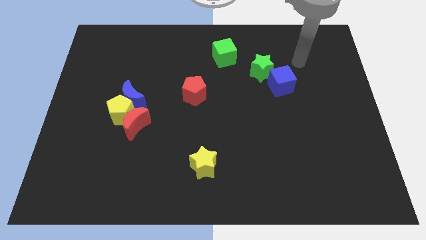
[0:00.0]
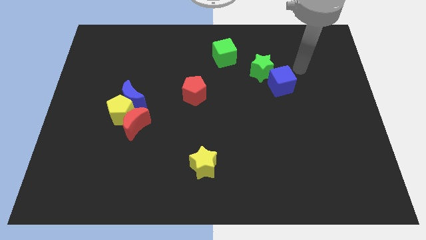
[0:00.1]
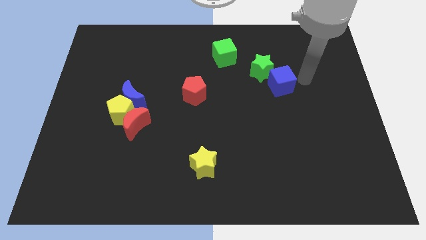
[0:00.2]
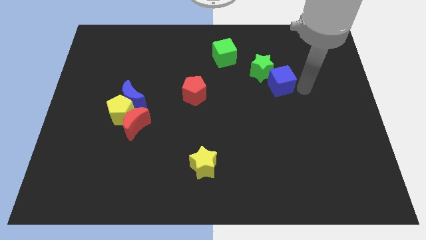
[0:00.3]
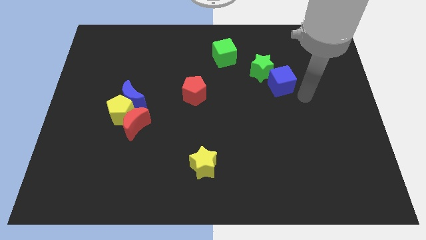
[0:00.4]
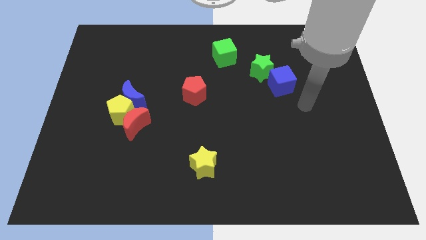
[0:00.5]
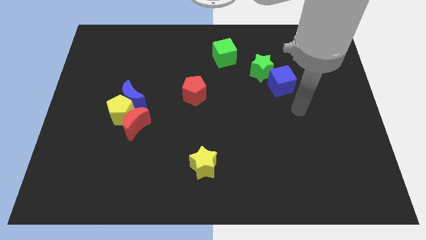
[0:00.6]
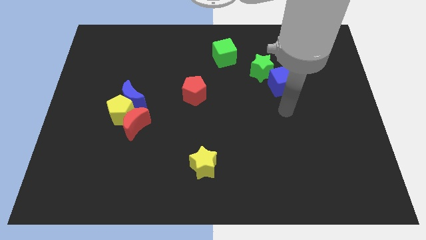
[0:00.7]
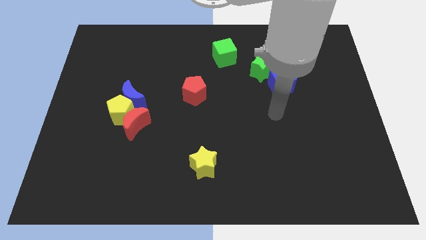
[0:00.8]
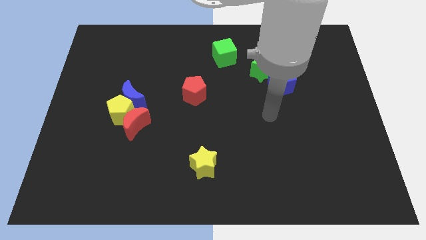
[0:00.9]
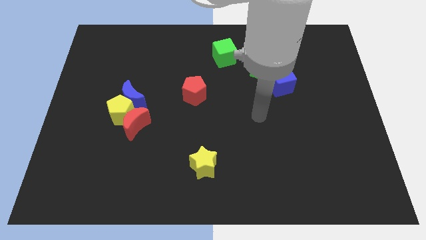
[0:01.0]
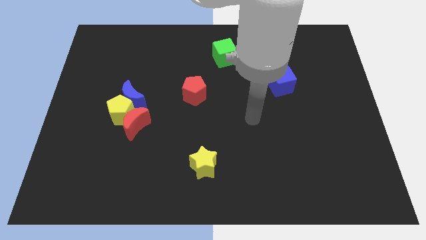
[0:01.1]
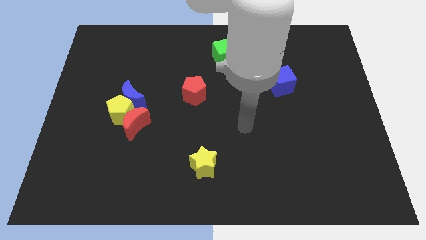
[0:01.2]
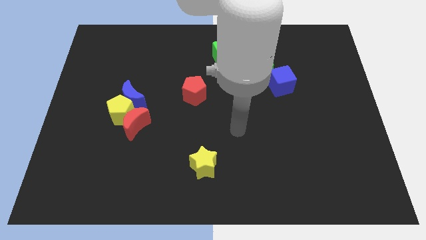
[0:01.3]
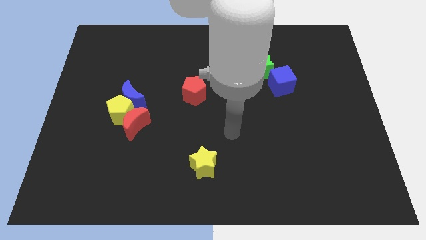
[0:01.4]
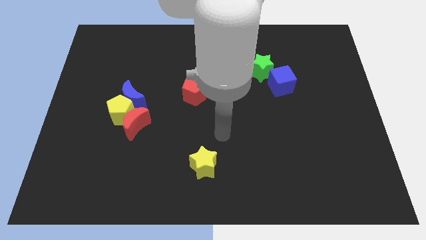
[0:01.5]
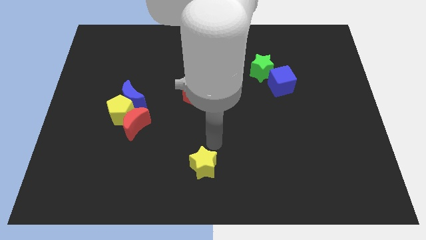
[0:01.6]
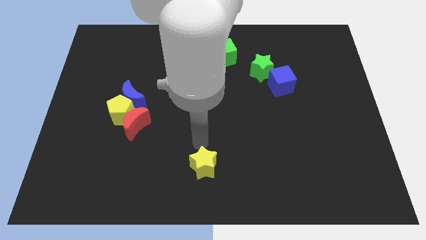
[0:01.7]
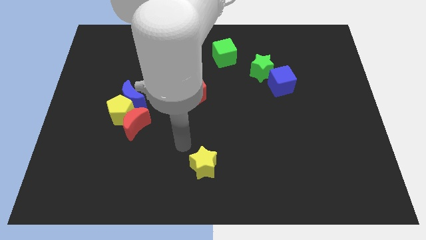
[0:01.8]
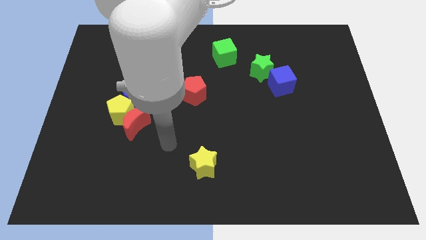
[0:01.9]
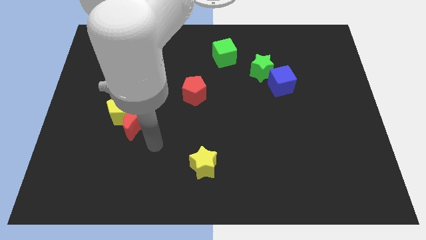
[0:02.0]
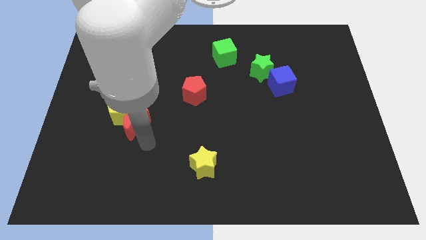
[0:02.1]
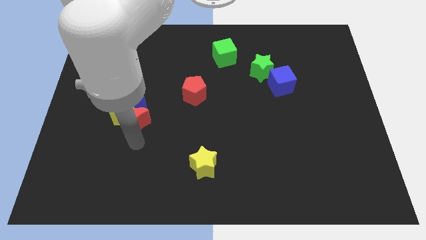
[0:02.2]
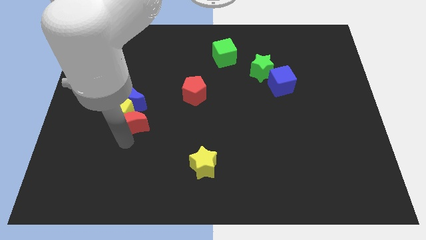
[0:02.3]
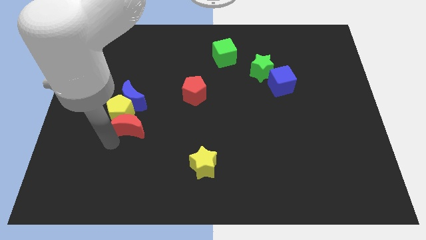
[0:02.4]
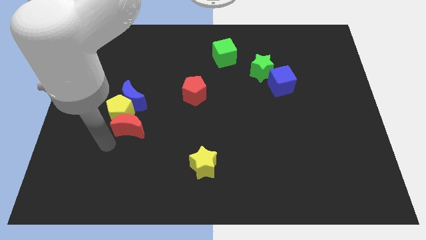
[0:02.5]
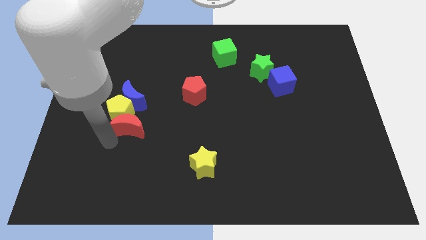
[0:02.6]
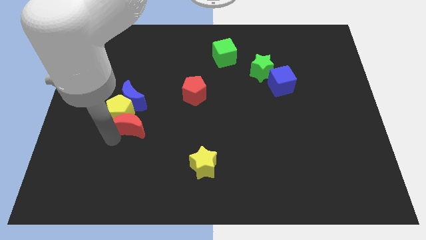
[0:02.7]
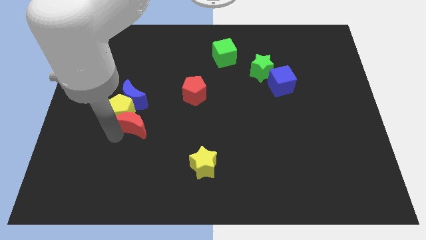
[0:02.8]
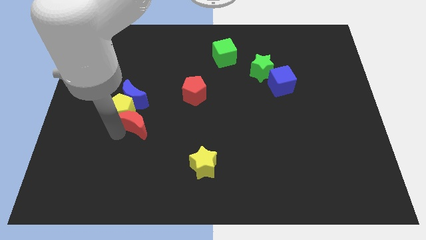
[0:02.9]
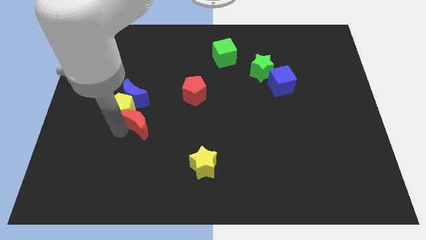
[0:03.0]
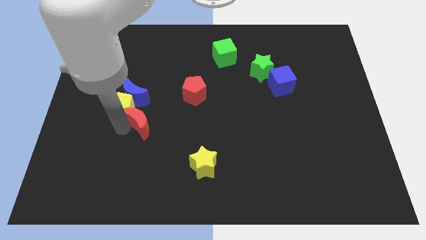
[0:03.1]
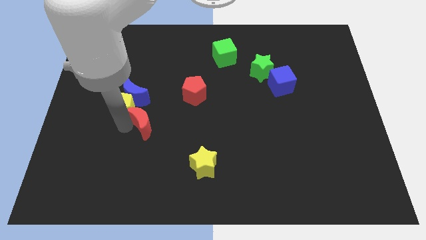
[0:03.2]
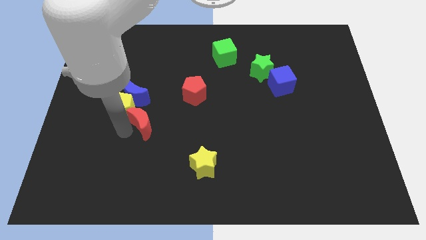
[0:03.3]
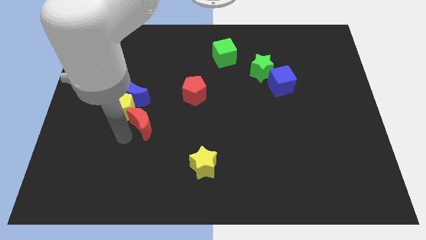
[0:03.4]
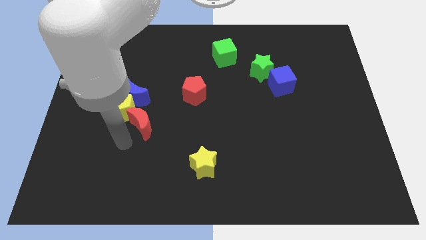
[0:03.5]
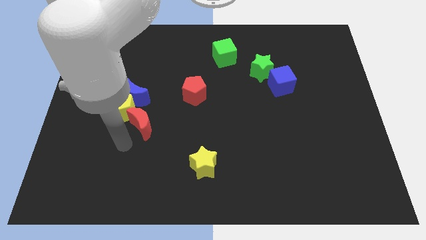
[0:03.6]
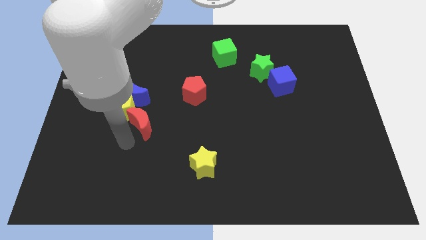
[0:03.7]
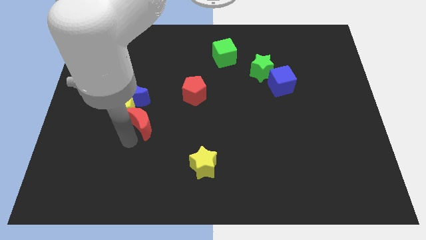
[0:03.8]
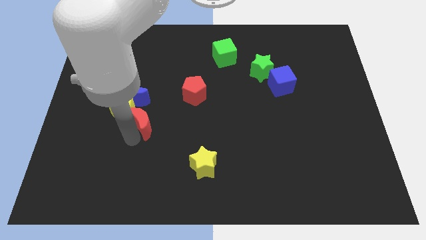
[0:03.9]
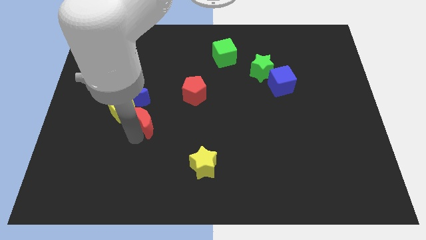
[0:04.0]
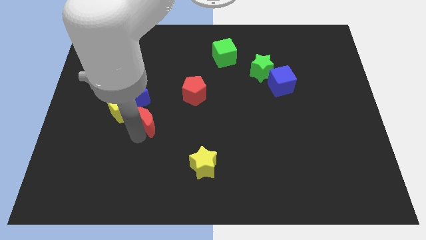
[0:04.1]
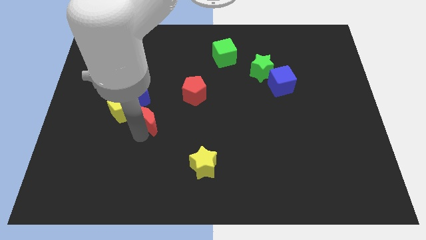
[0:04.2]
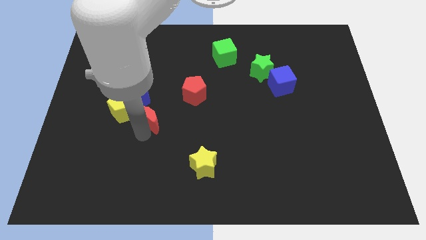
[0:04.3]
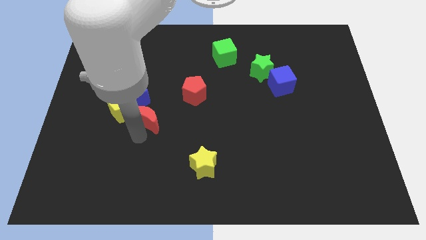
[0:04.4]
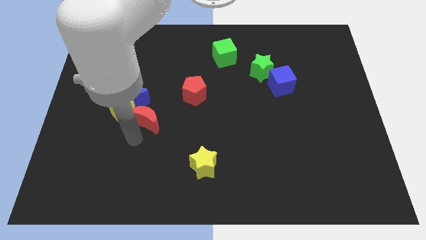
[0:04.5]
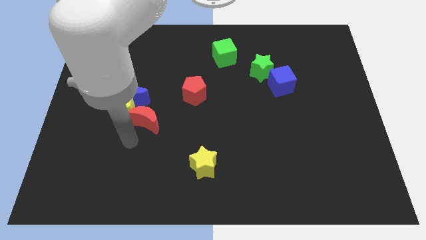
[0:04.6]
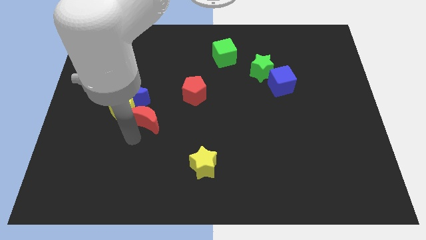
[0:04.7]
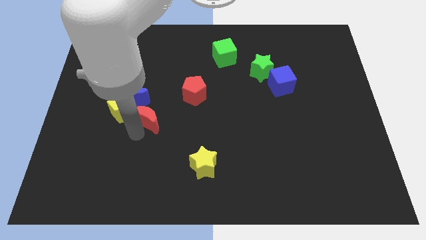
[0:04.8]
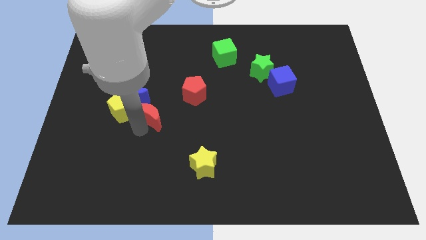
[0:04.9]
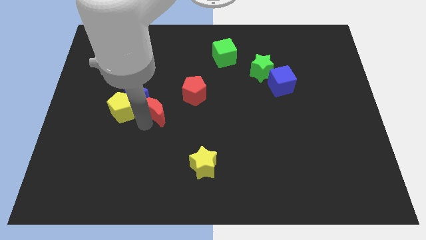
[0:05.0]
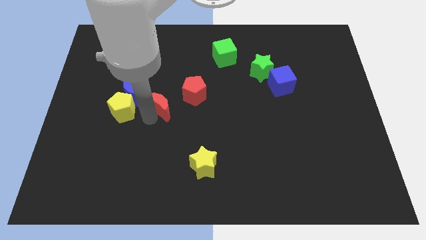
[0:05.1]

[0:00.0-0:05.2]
move the red moon up and then right somewhat

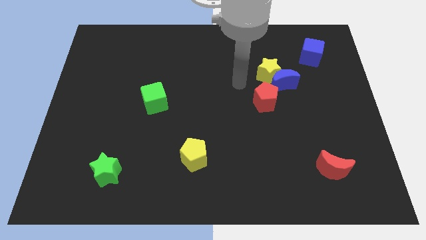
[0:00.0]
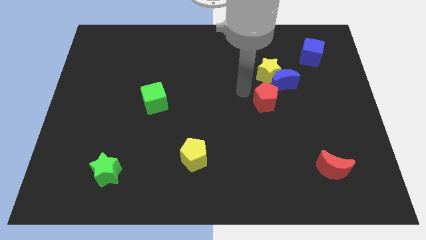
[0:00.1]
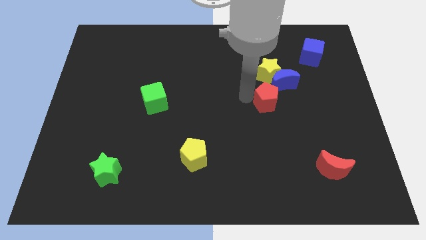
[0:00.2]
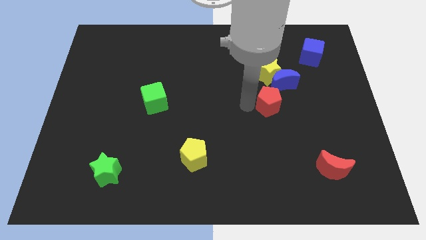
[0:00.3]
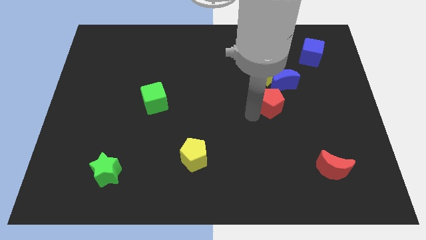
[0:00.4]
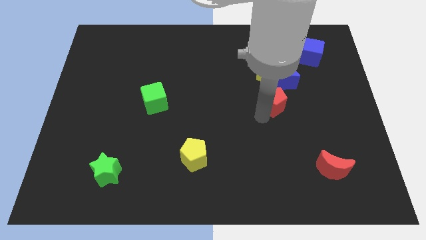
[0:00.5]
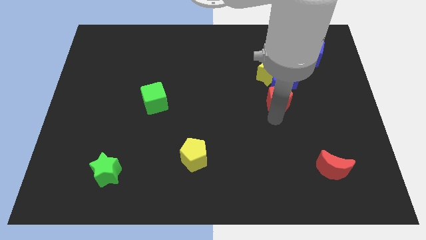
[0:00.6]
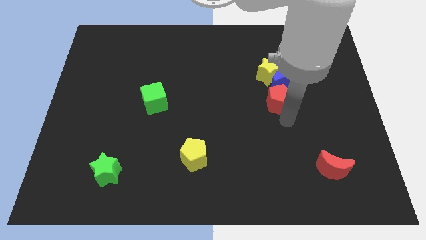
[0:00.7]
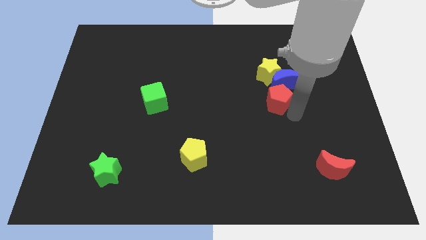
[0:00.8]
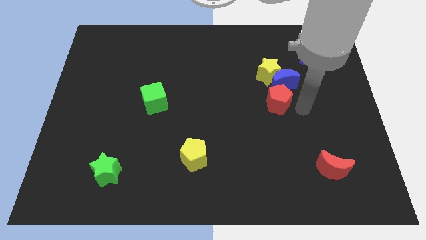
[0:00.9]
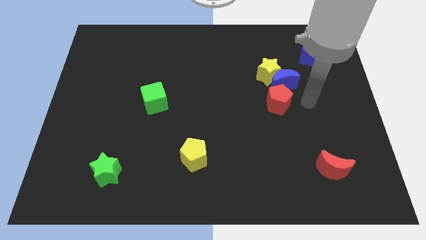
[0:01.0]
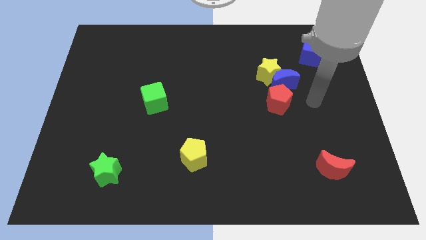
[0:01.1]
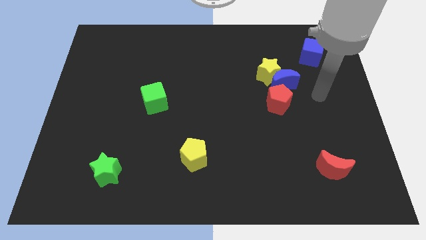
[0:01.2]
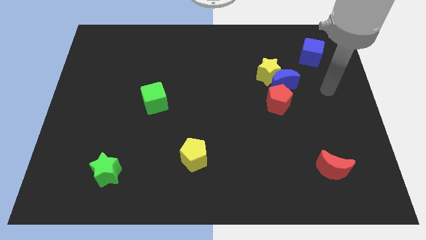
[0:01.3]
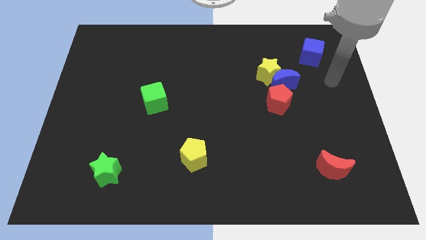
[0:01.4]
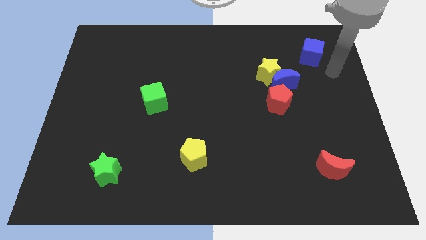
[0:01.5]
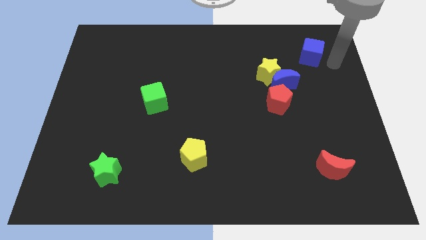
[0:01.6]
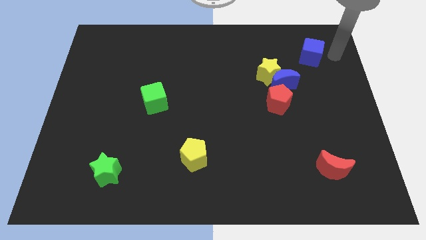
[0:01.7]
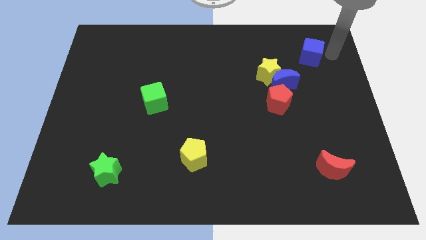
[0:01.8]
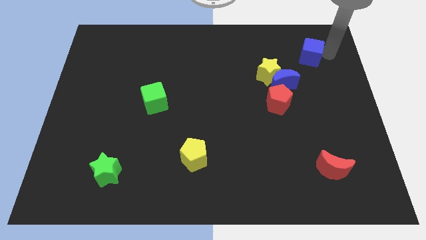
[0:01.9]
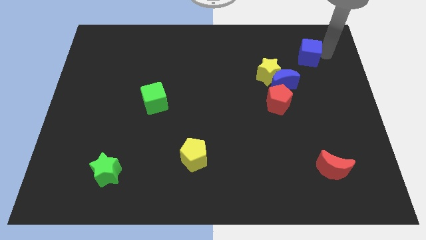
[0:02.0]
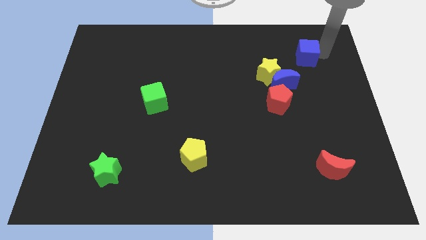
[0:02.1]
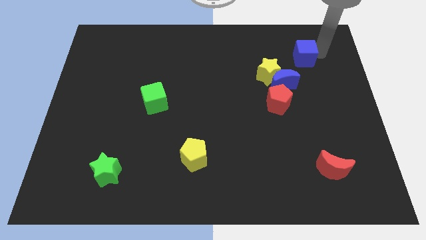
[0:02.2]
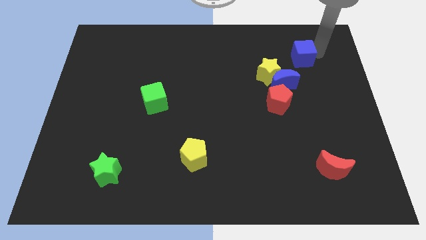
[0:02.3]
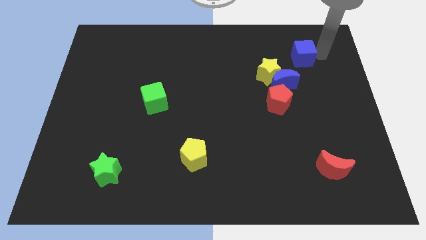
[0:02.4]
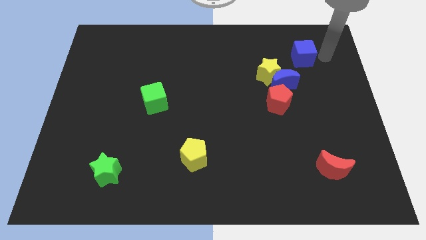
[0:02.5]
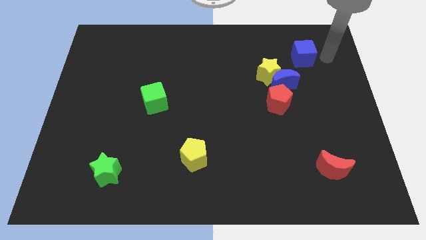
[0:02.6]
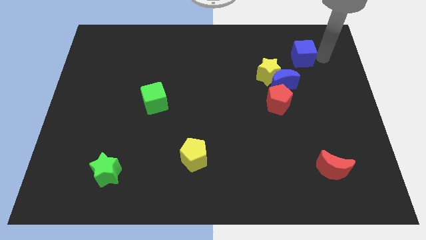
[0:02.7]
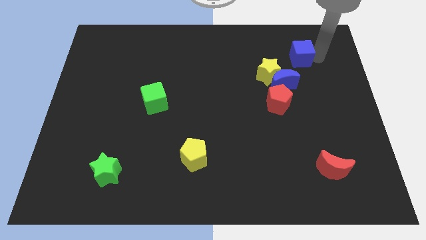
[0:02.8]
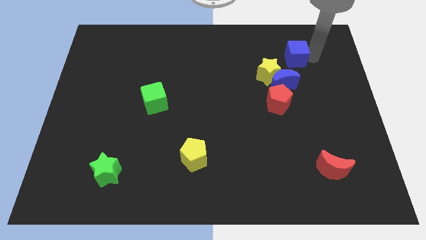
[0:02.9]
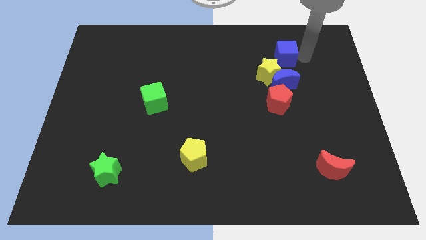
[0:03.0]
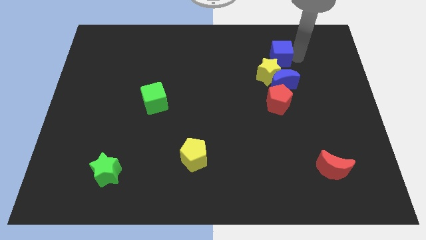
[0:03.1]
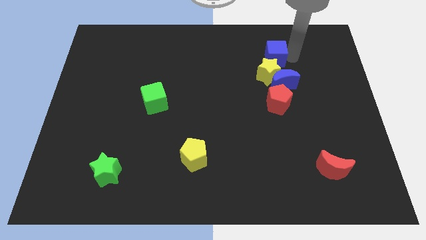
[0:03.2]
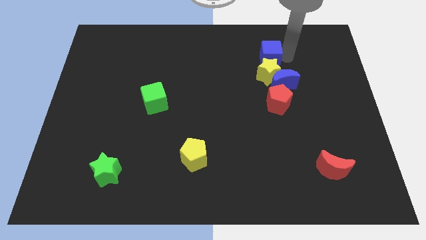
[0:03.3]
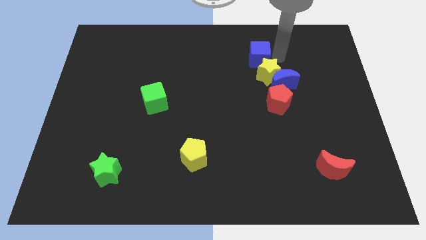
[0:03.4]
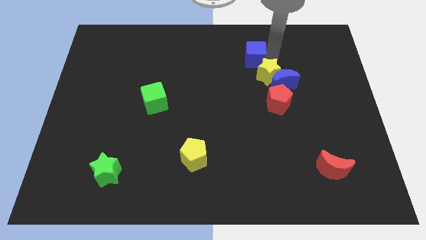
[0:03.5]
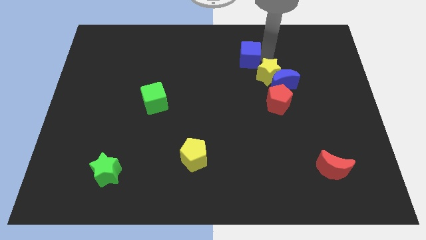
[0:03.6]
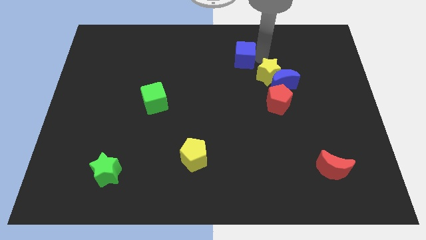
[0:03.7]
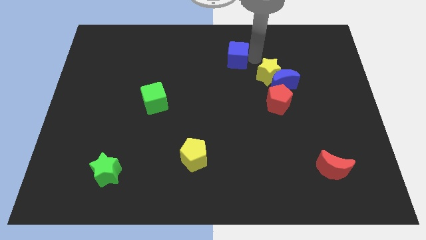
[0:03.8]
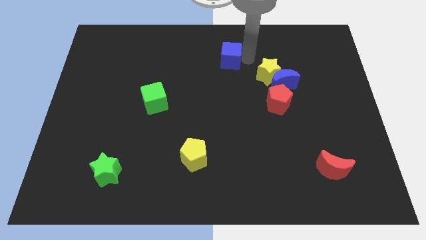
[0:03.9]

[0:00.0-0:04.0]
move the blue cube to the left
